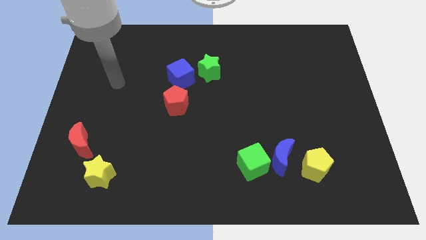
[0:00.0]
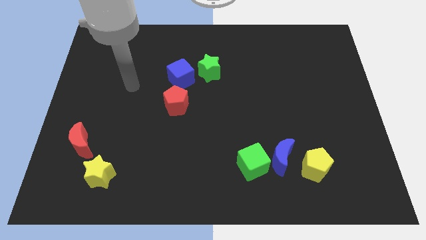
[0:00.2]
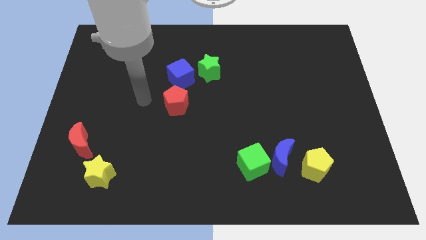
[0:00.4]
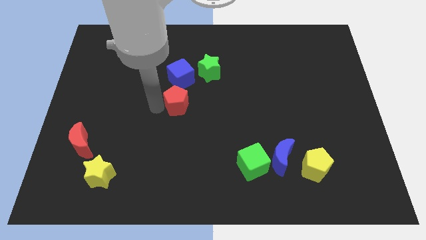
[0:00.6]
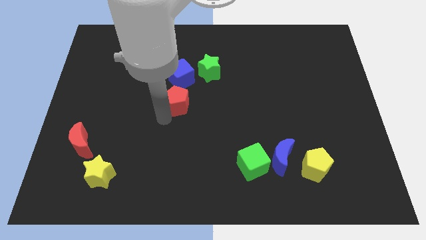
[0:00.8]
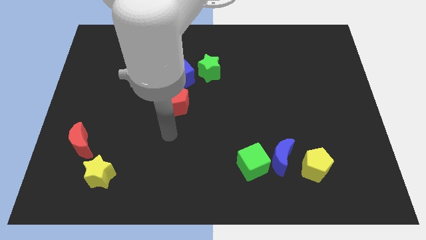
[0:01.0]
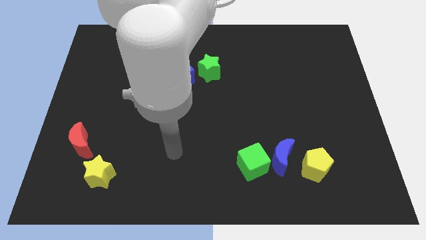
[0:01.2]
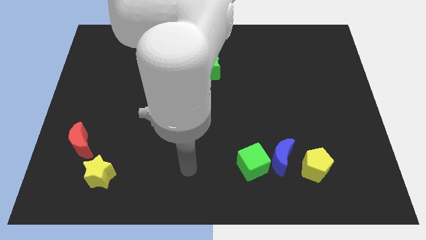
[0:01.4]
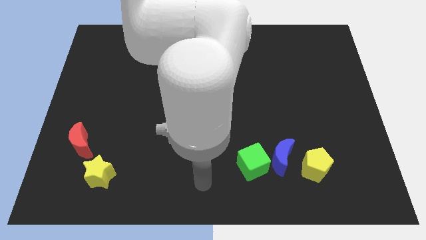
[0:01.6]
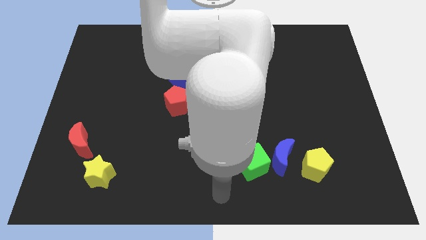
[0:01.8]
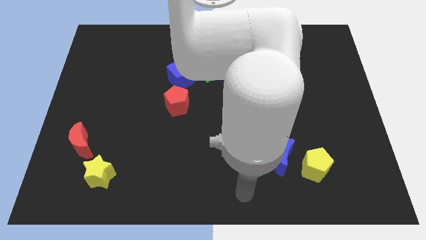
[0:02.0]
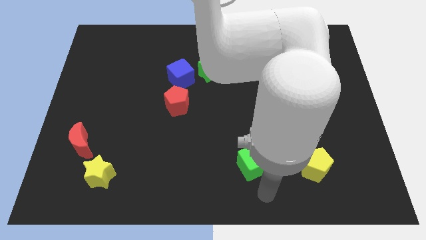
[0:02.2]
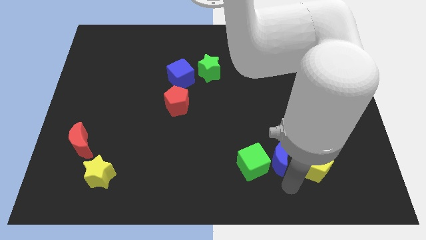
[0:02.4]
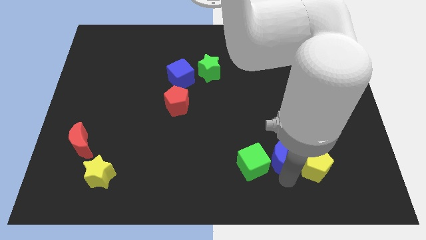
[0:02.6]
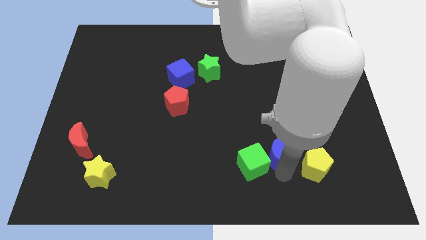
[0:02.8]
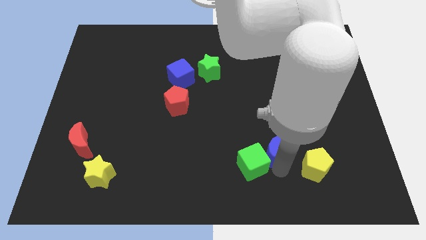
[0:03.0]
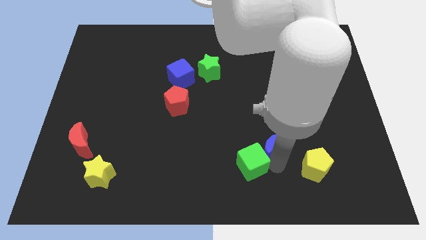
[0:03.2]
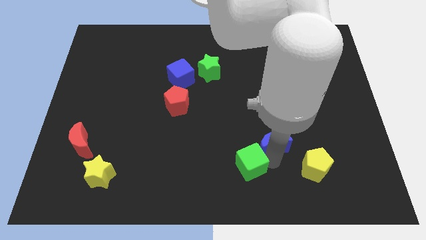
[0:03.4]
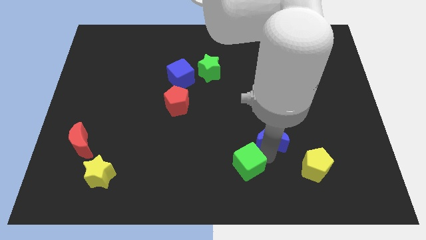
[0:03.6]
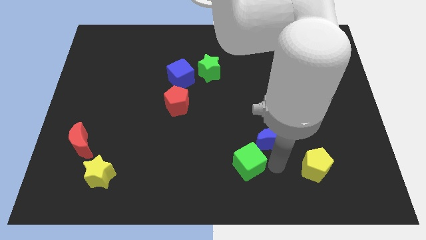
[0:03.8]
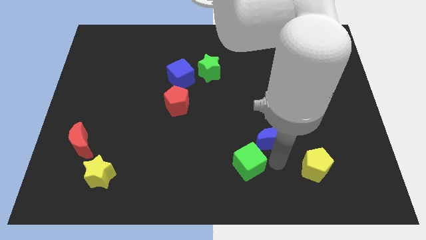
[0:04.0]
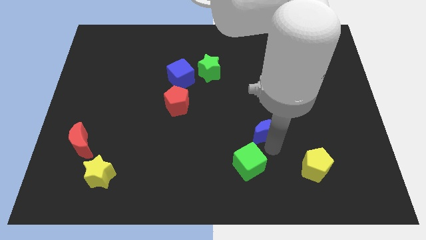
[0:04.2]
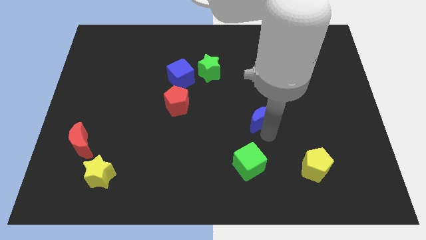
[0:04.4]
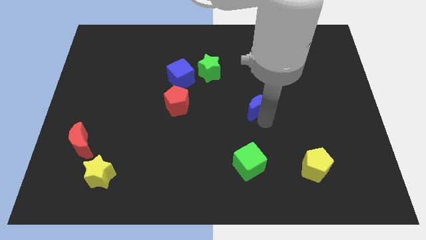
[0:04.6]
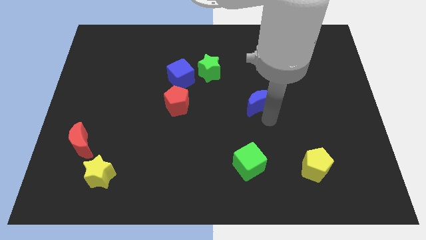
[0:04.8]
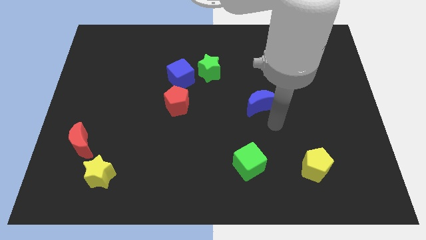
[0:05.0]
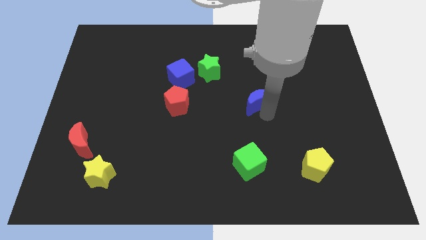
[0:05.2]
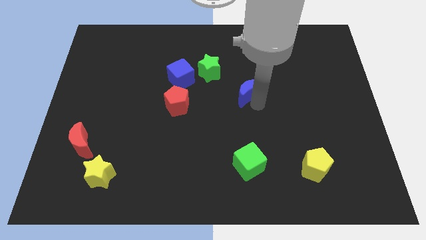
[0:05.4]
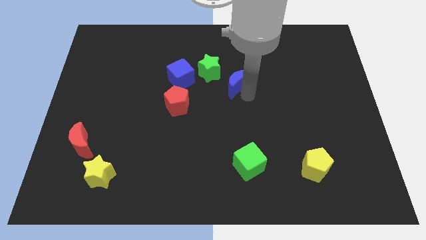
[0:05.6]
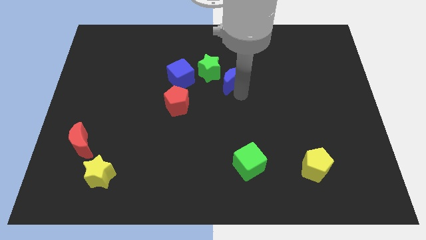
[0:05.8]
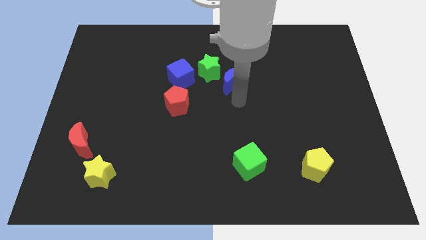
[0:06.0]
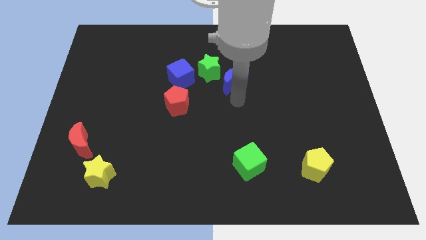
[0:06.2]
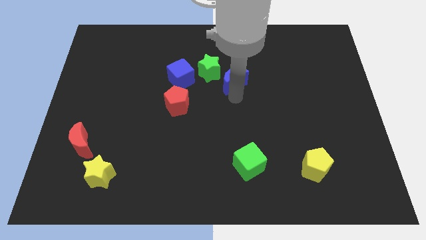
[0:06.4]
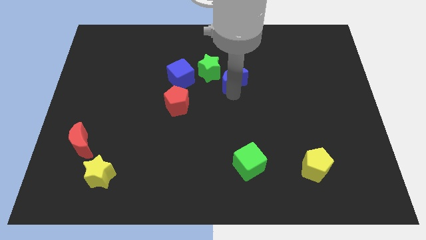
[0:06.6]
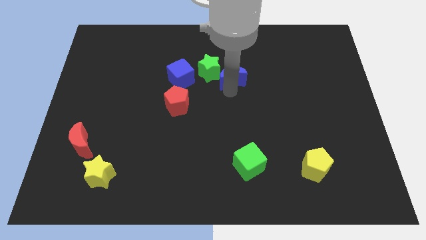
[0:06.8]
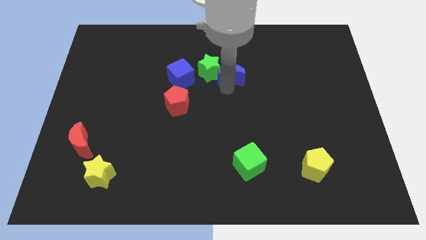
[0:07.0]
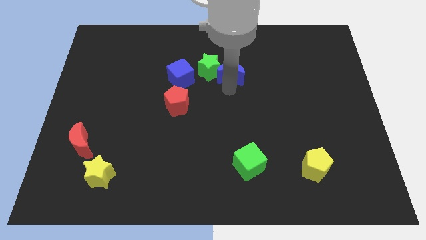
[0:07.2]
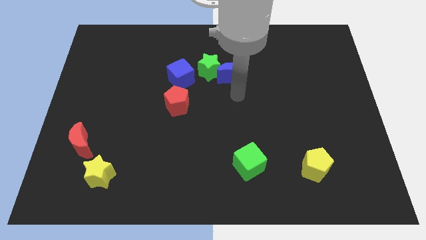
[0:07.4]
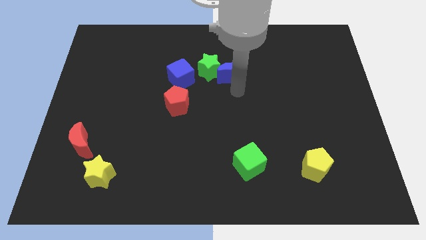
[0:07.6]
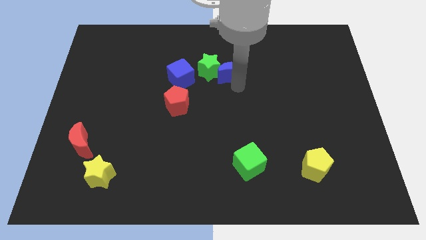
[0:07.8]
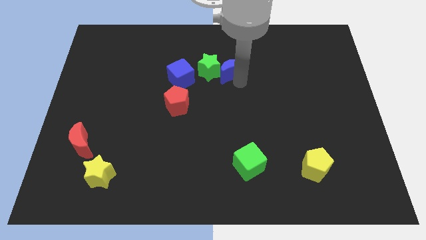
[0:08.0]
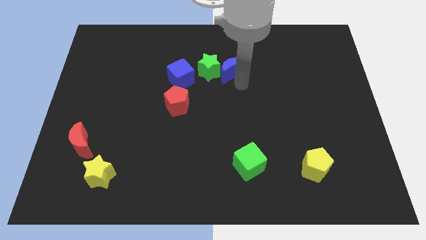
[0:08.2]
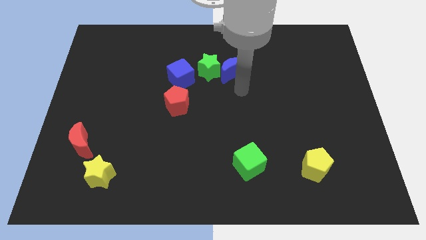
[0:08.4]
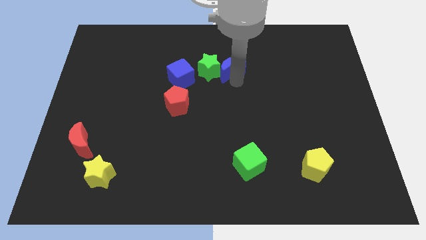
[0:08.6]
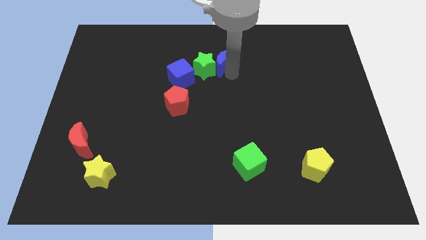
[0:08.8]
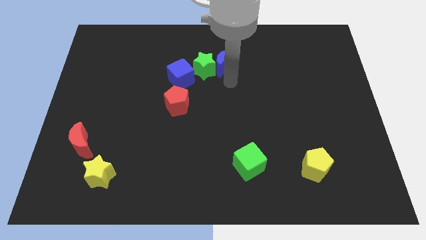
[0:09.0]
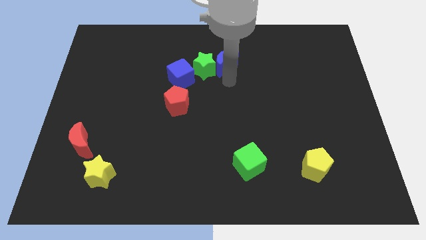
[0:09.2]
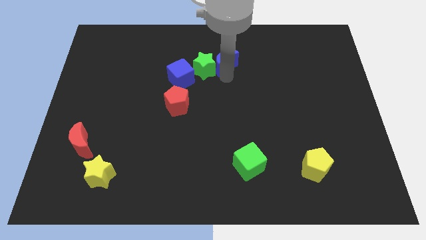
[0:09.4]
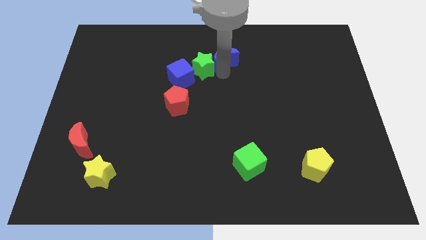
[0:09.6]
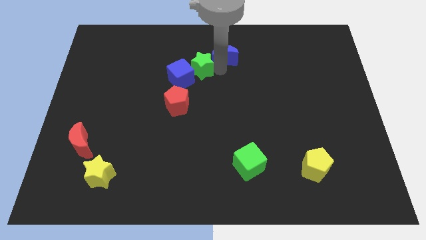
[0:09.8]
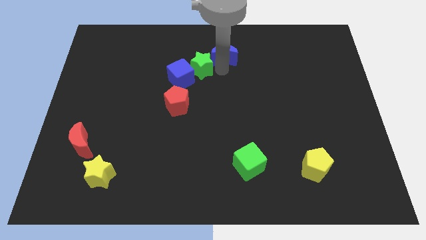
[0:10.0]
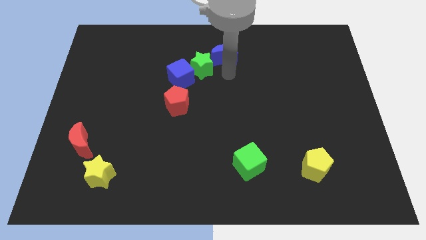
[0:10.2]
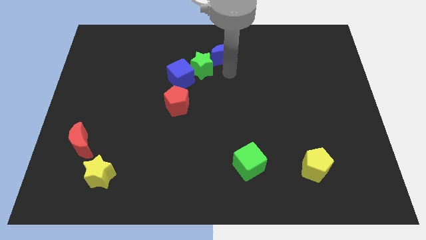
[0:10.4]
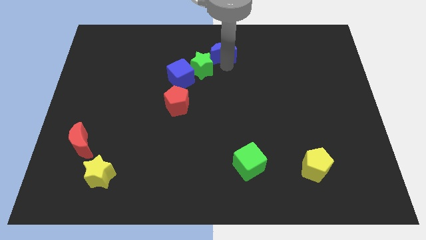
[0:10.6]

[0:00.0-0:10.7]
move the blue moon to the top side
